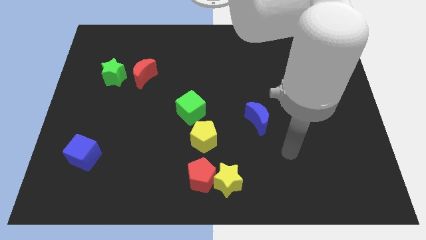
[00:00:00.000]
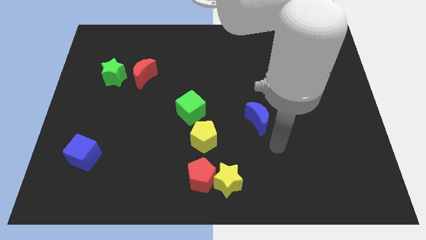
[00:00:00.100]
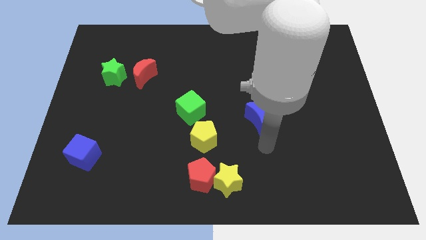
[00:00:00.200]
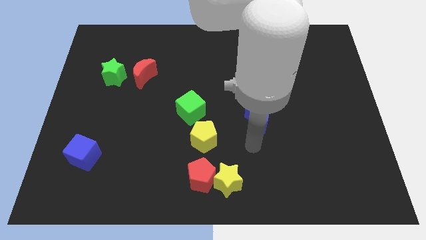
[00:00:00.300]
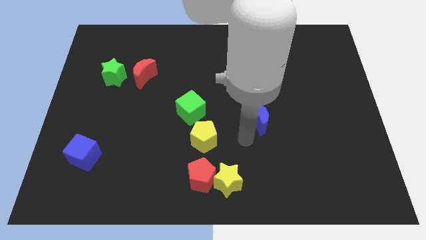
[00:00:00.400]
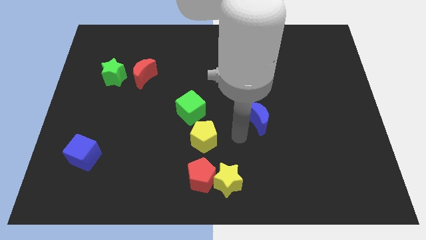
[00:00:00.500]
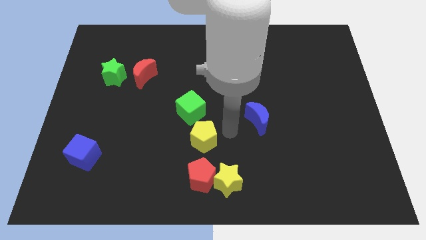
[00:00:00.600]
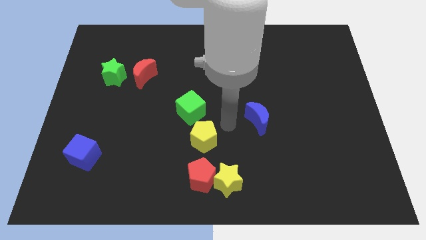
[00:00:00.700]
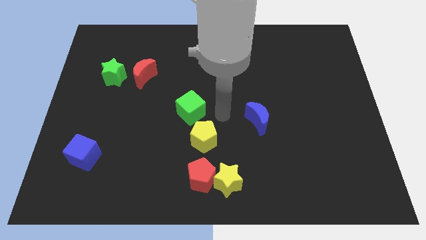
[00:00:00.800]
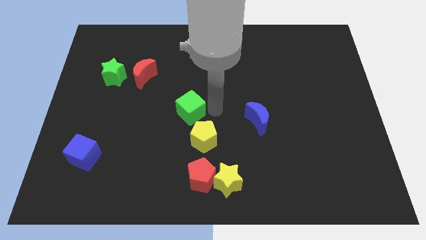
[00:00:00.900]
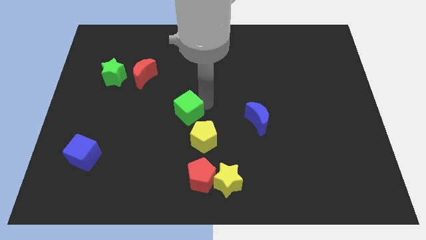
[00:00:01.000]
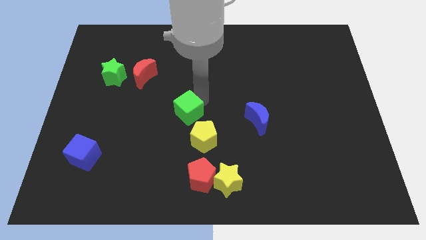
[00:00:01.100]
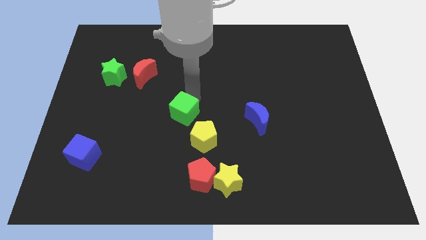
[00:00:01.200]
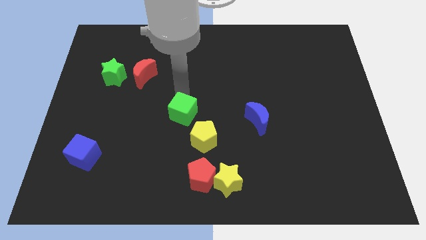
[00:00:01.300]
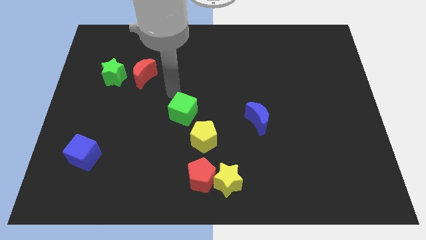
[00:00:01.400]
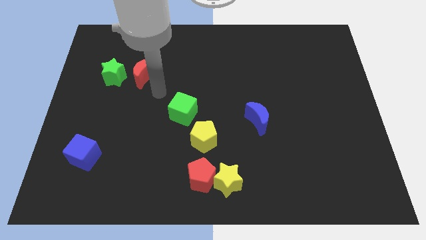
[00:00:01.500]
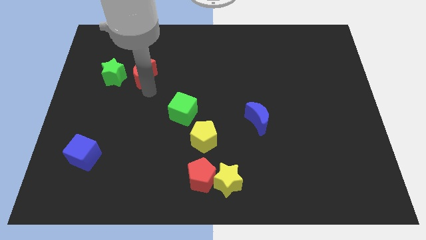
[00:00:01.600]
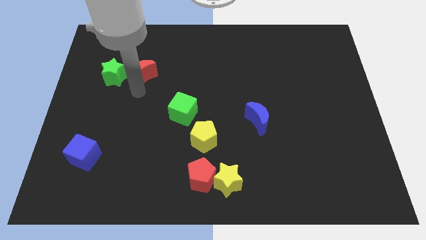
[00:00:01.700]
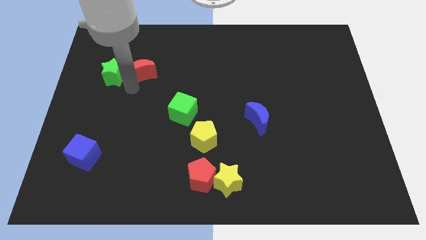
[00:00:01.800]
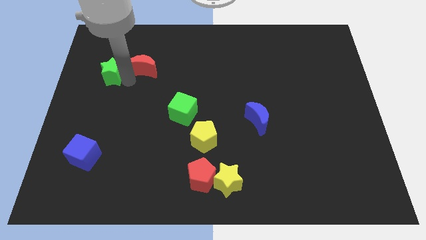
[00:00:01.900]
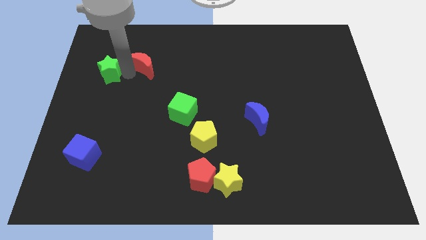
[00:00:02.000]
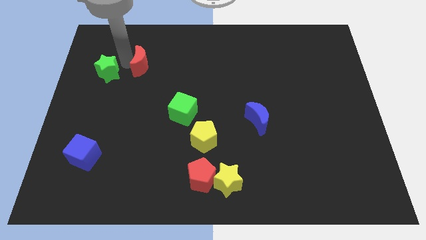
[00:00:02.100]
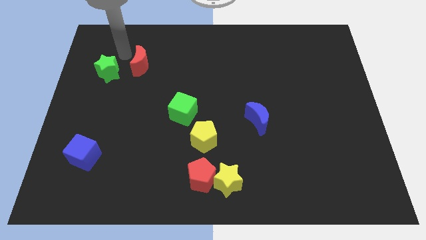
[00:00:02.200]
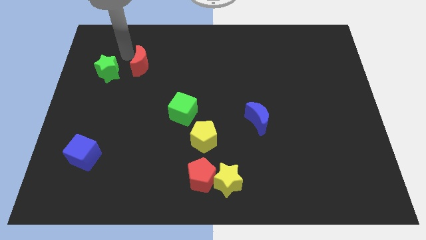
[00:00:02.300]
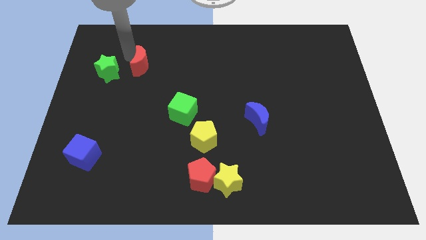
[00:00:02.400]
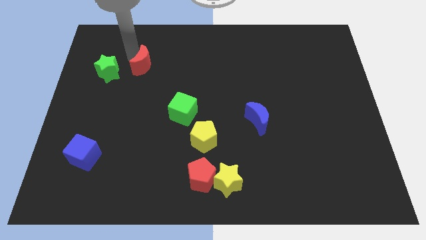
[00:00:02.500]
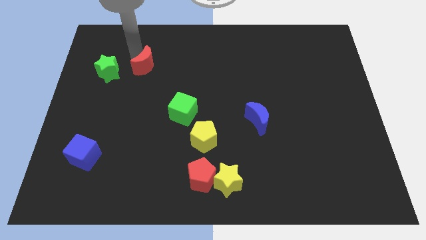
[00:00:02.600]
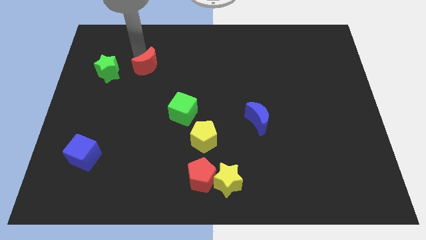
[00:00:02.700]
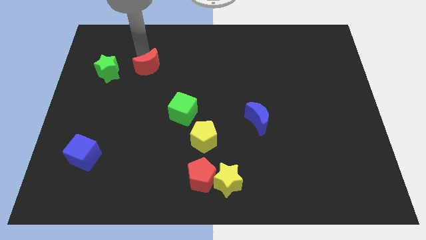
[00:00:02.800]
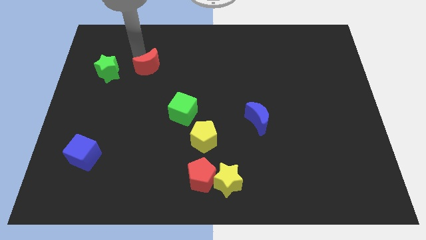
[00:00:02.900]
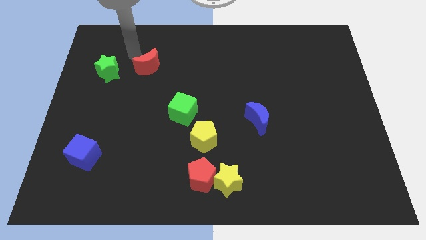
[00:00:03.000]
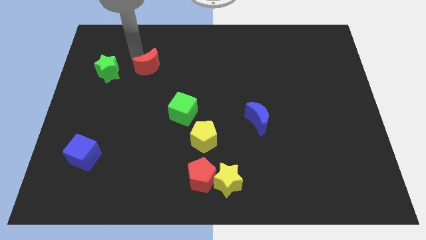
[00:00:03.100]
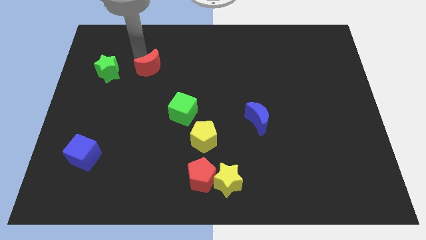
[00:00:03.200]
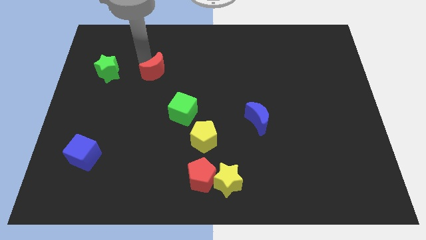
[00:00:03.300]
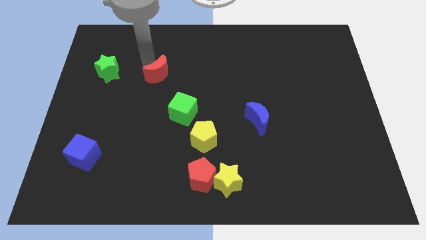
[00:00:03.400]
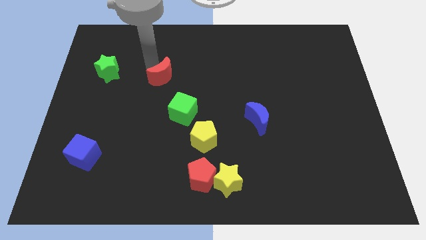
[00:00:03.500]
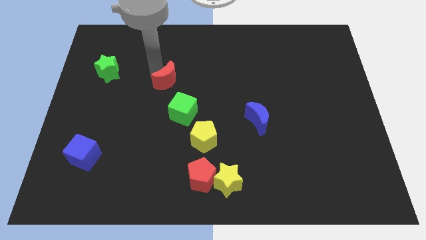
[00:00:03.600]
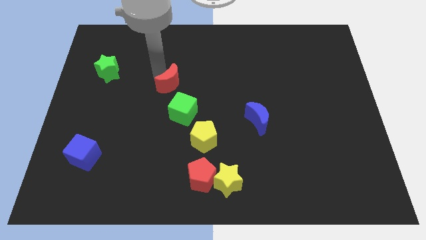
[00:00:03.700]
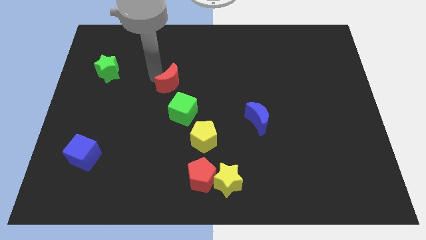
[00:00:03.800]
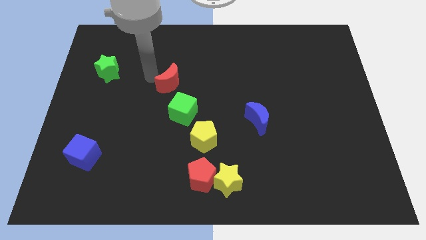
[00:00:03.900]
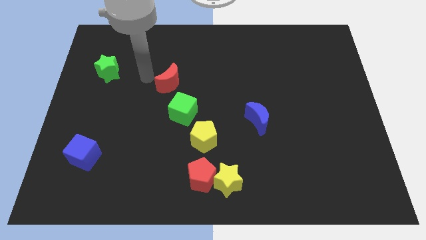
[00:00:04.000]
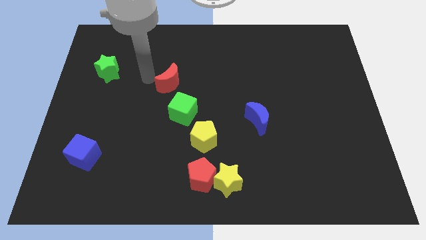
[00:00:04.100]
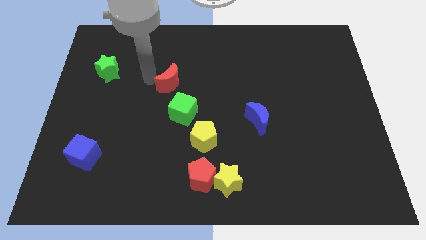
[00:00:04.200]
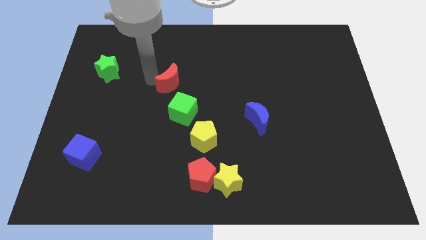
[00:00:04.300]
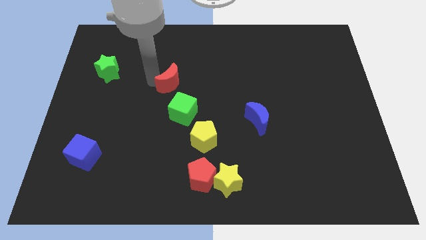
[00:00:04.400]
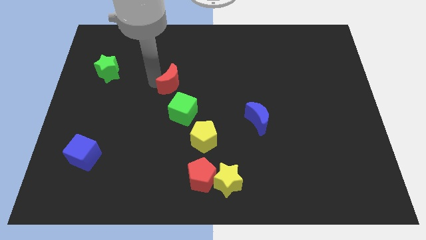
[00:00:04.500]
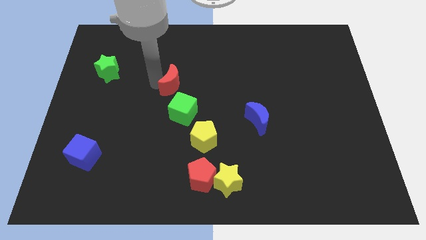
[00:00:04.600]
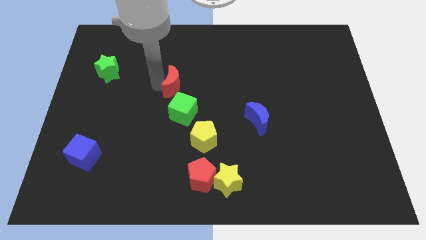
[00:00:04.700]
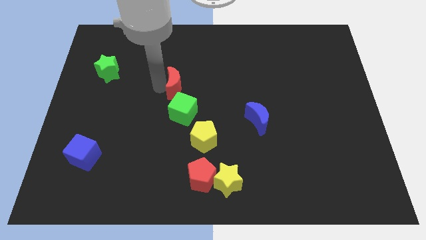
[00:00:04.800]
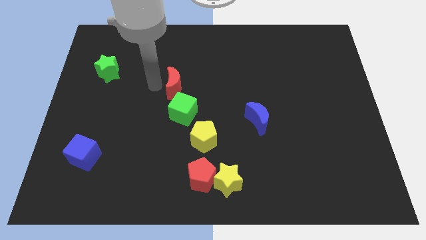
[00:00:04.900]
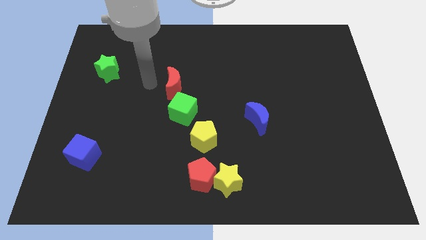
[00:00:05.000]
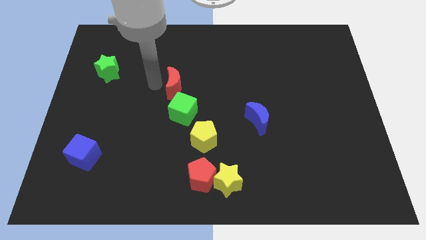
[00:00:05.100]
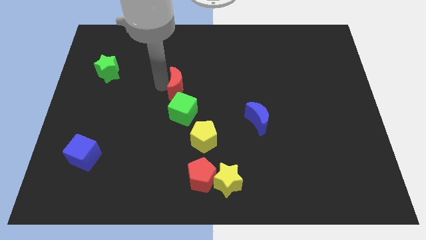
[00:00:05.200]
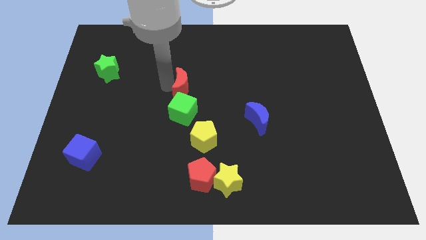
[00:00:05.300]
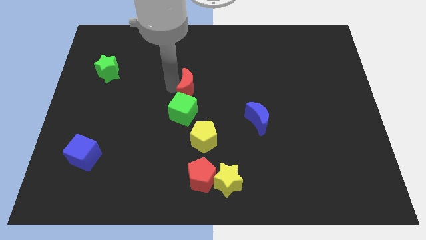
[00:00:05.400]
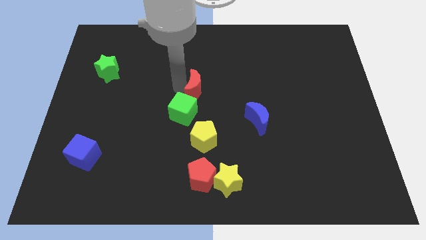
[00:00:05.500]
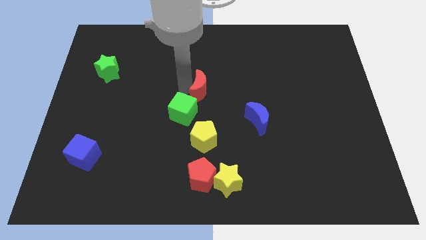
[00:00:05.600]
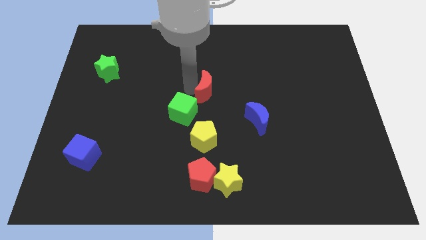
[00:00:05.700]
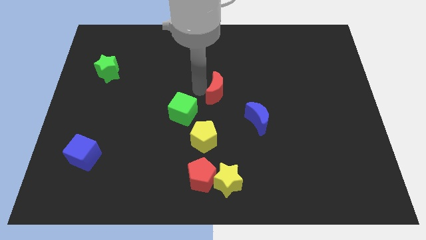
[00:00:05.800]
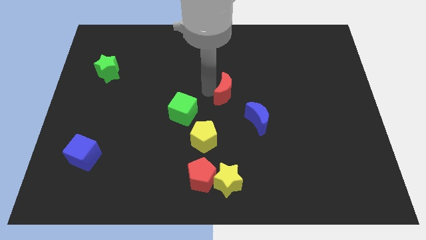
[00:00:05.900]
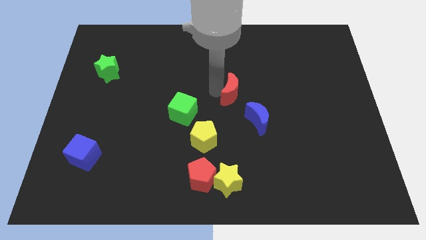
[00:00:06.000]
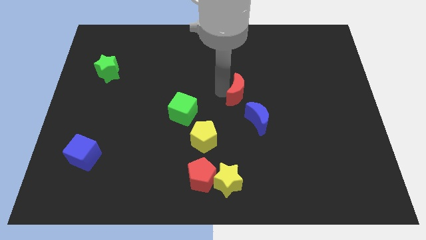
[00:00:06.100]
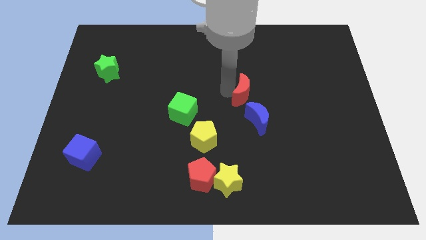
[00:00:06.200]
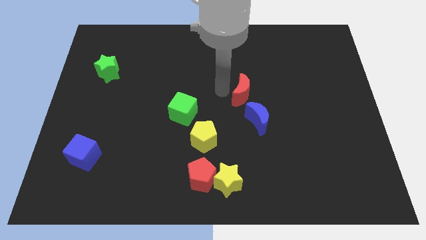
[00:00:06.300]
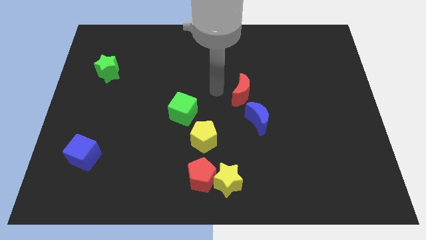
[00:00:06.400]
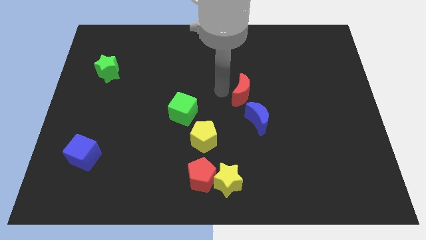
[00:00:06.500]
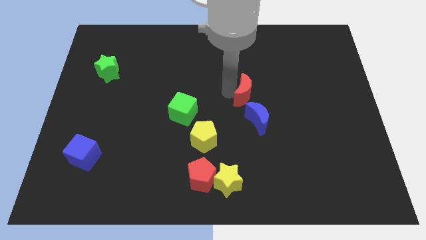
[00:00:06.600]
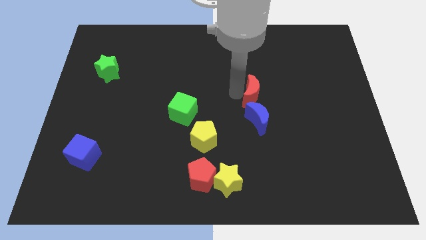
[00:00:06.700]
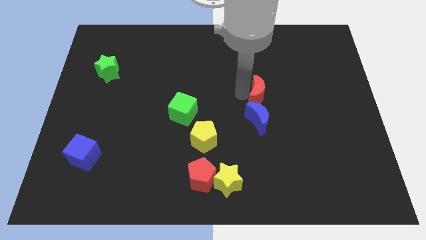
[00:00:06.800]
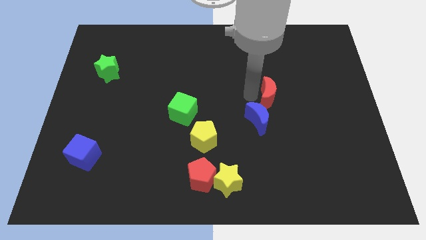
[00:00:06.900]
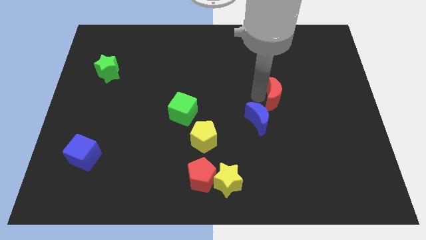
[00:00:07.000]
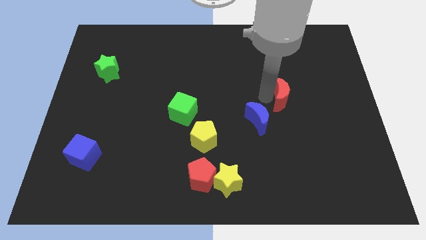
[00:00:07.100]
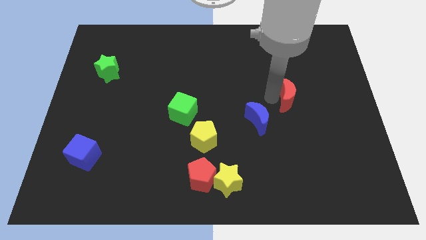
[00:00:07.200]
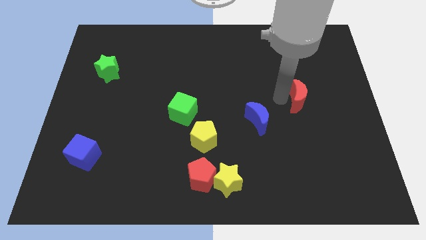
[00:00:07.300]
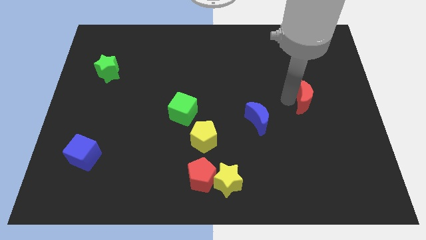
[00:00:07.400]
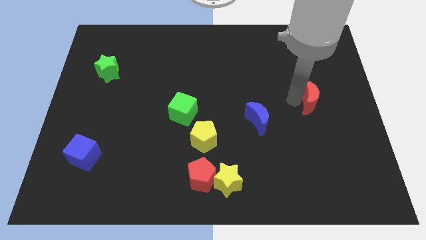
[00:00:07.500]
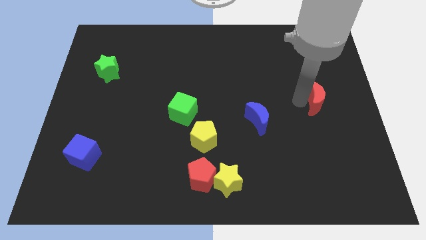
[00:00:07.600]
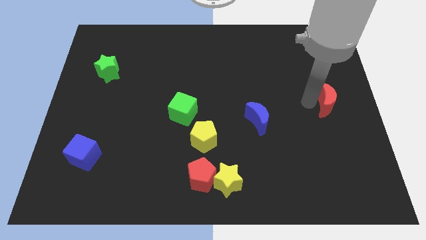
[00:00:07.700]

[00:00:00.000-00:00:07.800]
slide the red moon to the right side of the board

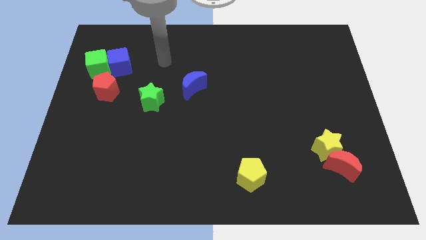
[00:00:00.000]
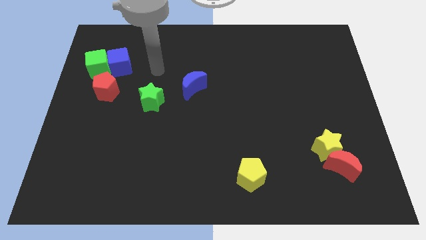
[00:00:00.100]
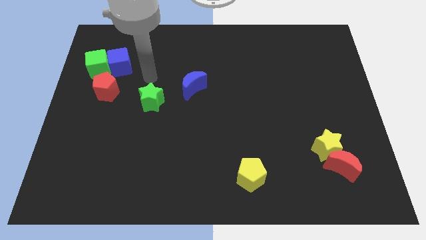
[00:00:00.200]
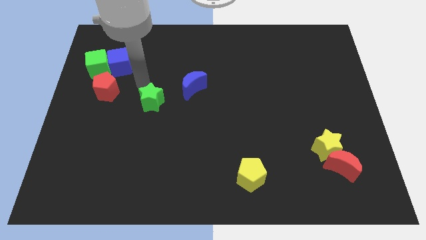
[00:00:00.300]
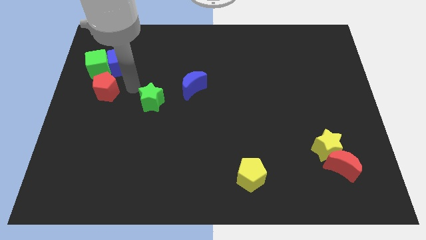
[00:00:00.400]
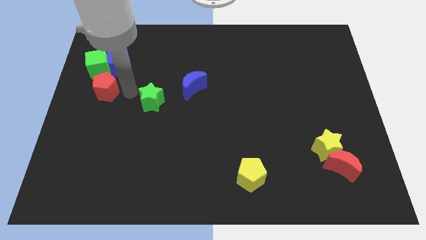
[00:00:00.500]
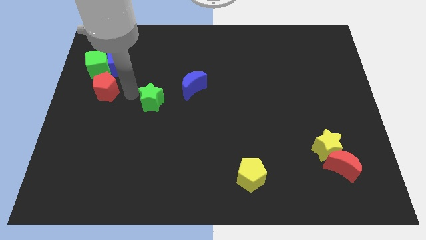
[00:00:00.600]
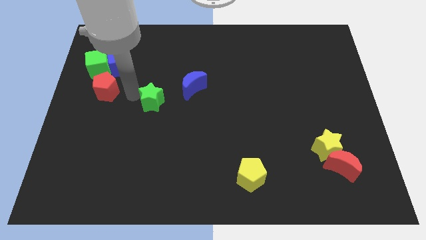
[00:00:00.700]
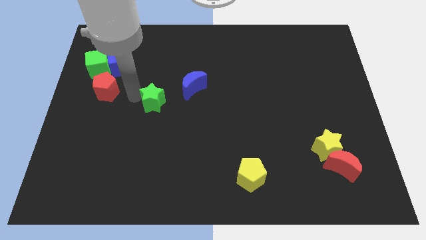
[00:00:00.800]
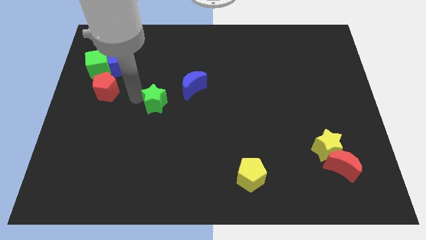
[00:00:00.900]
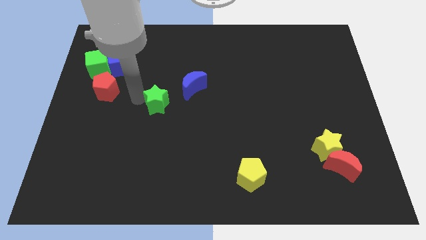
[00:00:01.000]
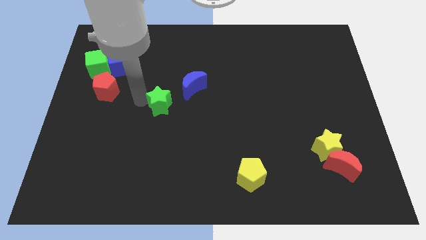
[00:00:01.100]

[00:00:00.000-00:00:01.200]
move the green star to the middle of the board
